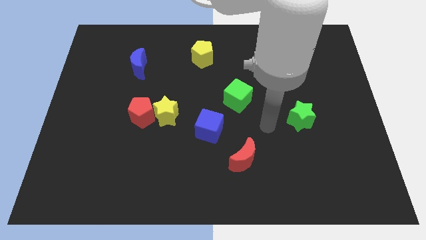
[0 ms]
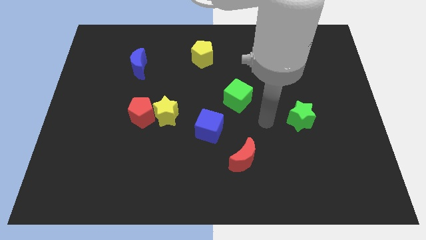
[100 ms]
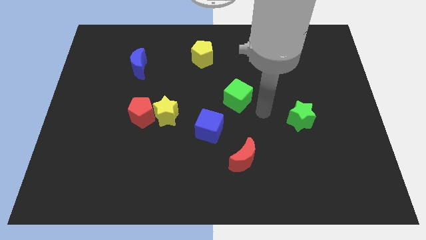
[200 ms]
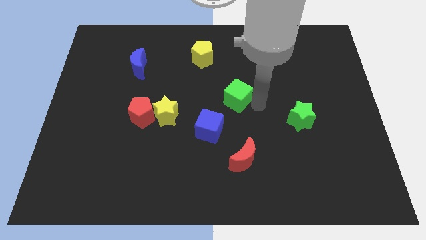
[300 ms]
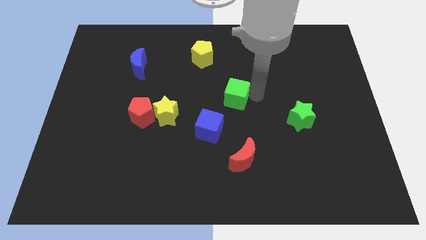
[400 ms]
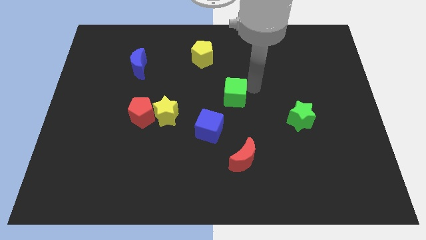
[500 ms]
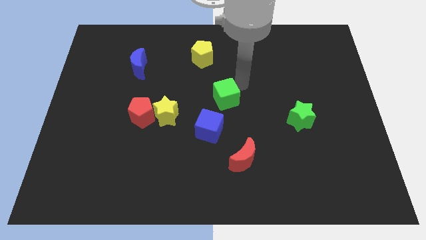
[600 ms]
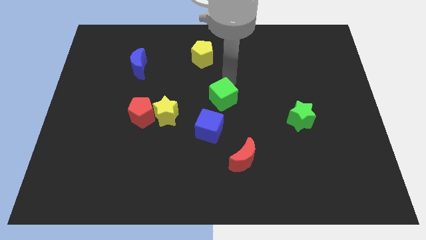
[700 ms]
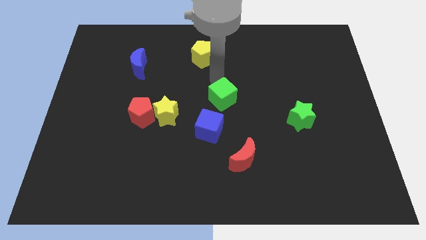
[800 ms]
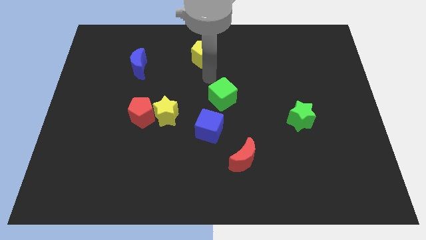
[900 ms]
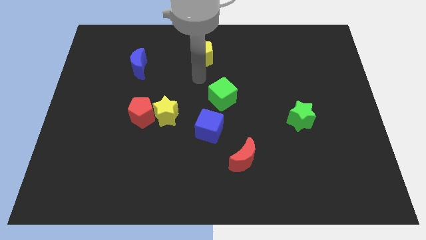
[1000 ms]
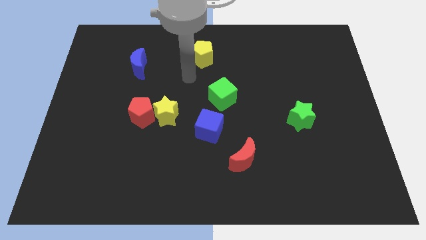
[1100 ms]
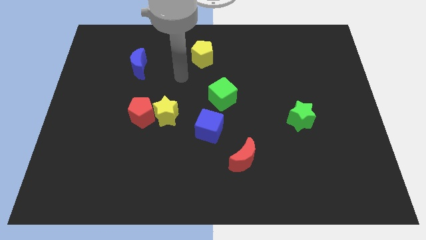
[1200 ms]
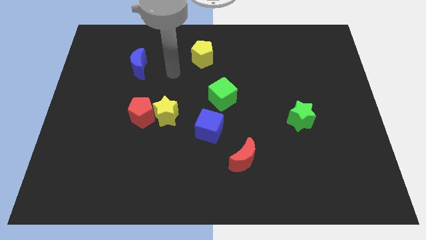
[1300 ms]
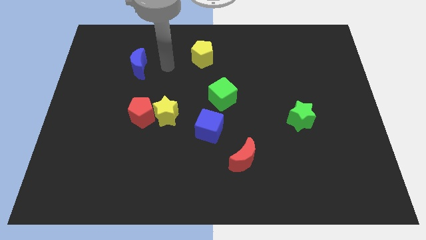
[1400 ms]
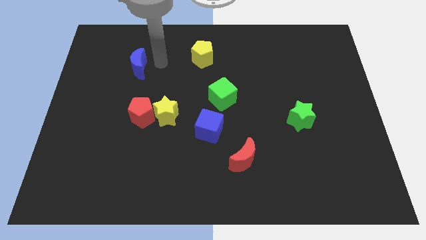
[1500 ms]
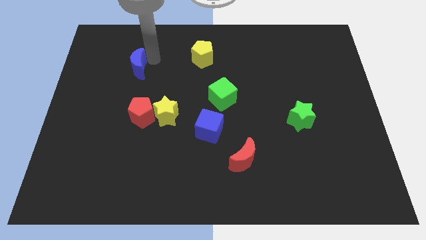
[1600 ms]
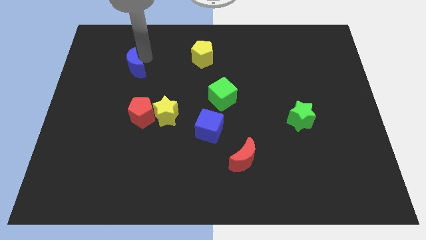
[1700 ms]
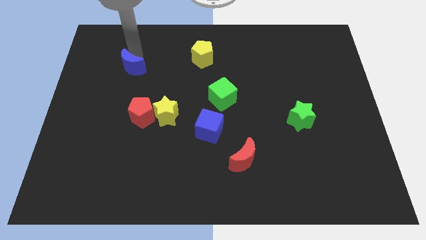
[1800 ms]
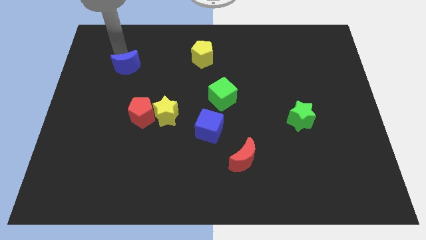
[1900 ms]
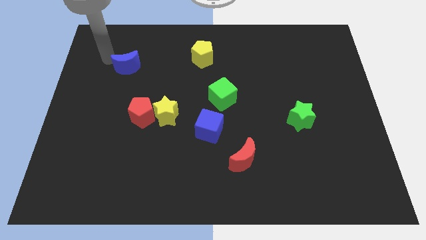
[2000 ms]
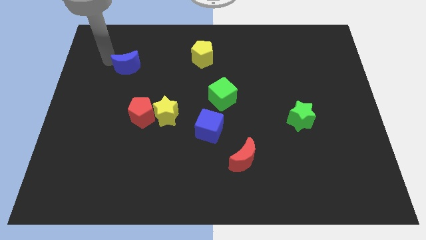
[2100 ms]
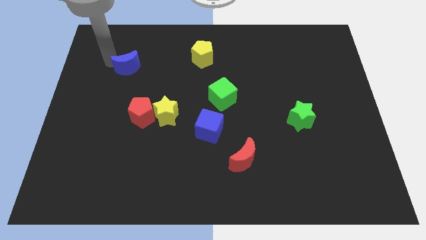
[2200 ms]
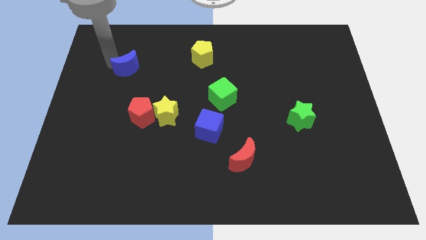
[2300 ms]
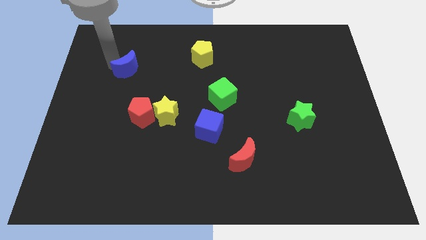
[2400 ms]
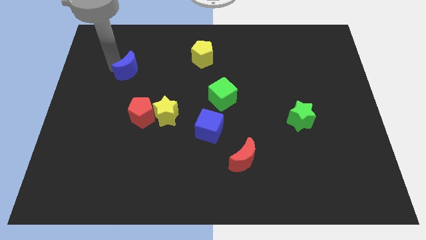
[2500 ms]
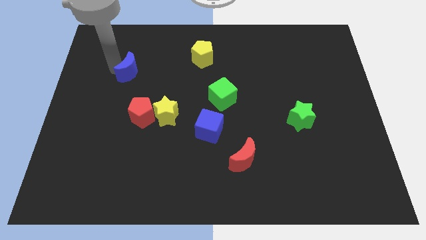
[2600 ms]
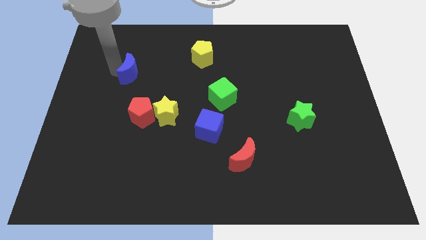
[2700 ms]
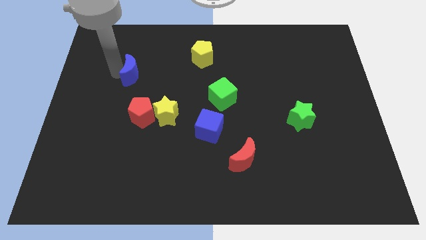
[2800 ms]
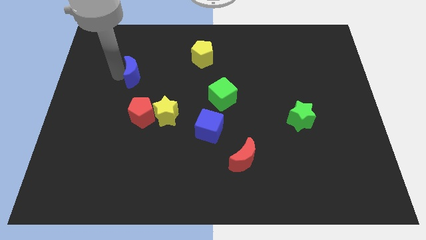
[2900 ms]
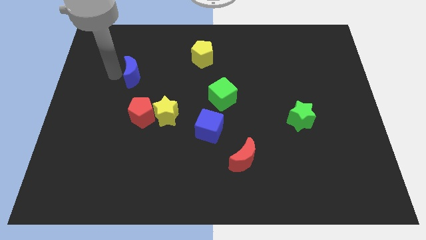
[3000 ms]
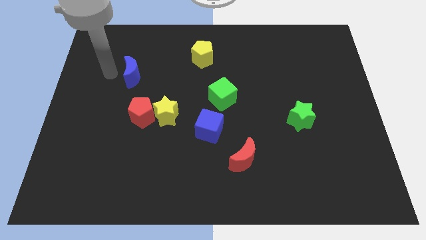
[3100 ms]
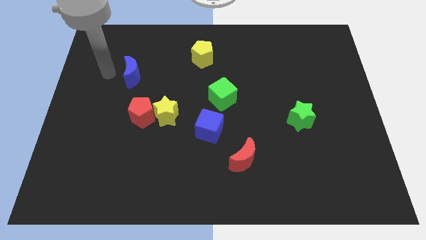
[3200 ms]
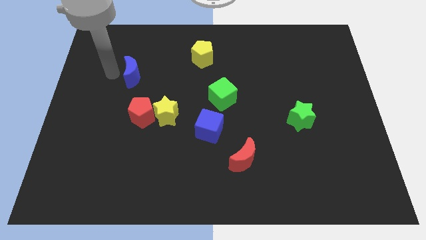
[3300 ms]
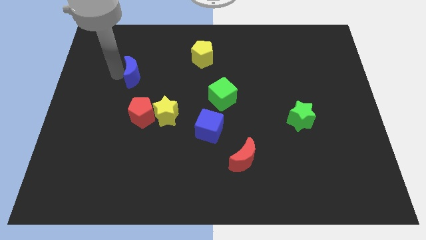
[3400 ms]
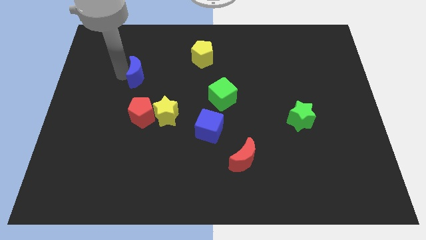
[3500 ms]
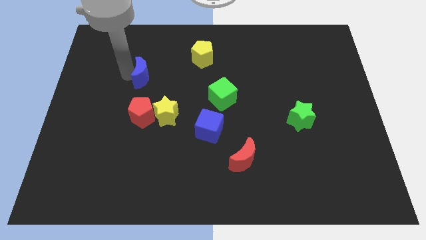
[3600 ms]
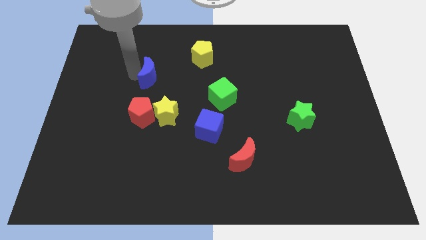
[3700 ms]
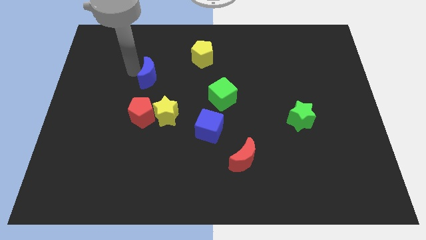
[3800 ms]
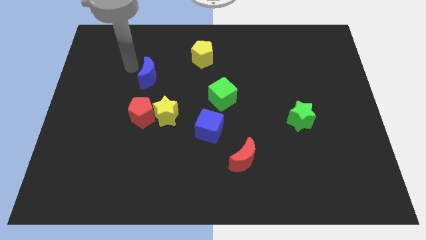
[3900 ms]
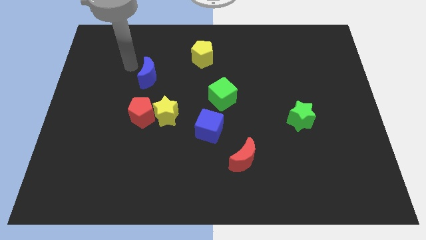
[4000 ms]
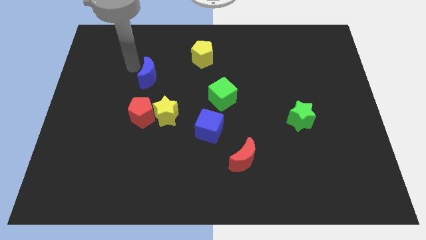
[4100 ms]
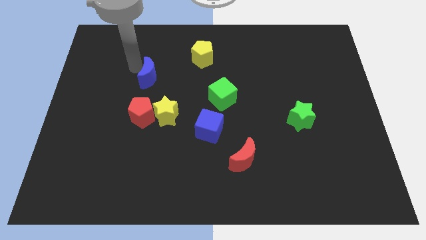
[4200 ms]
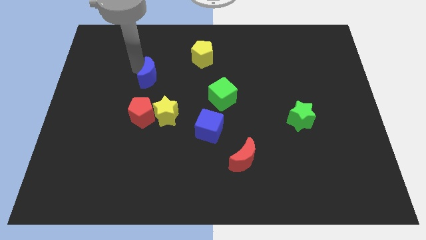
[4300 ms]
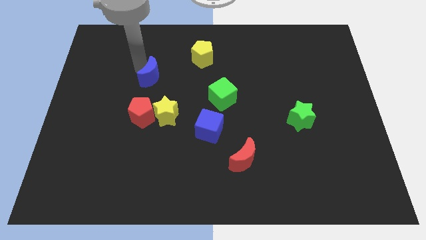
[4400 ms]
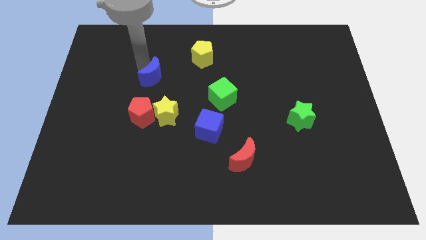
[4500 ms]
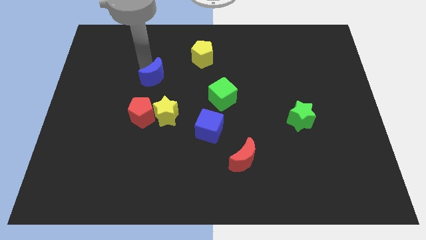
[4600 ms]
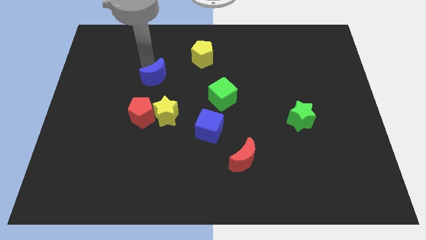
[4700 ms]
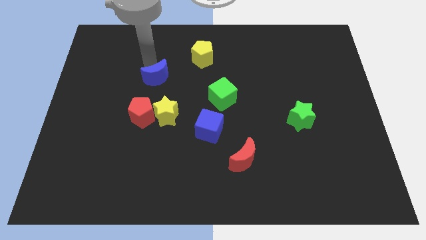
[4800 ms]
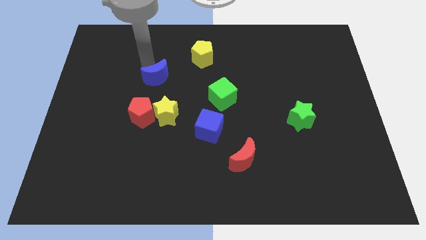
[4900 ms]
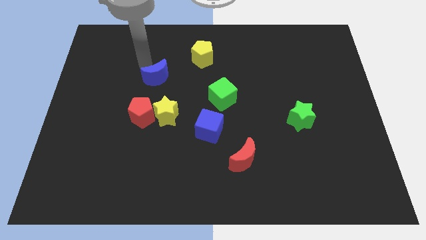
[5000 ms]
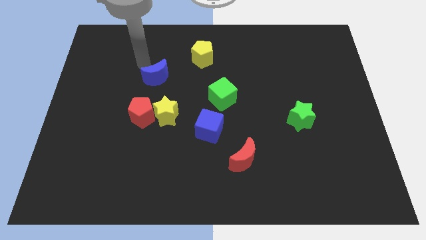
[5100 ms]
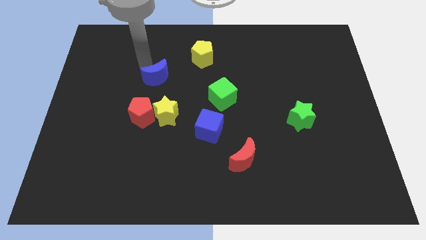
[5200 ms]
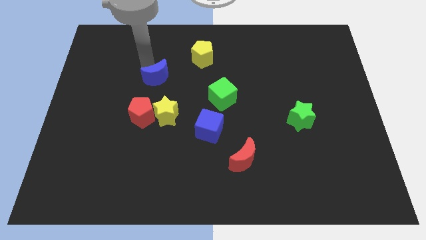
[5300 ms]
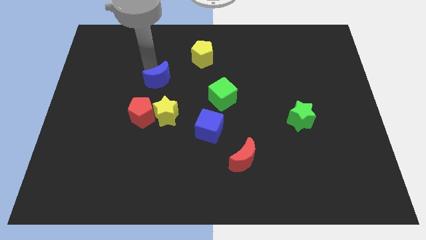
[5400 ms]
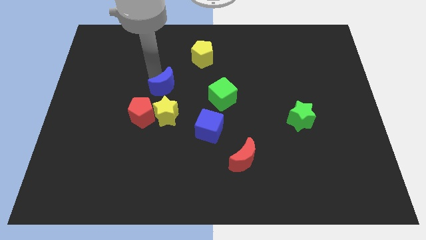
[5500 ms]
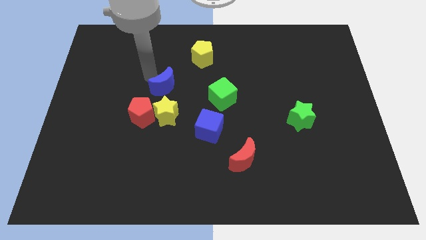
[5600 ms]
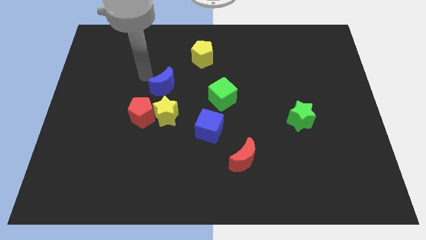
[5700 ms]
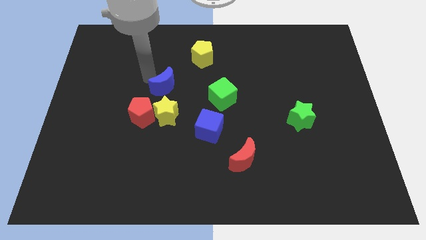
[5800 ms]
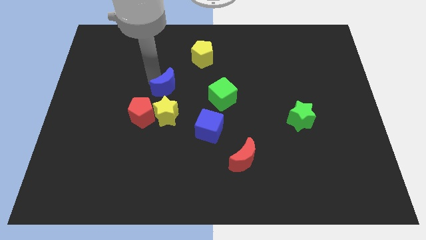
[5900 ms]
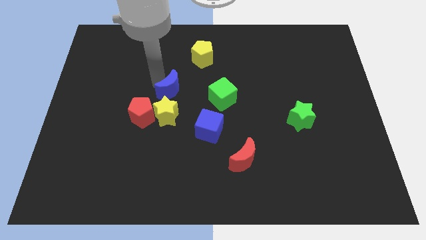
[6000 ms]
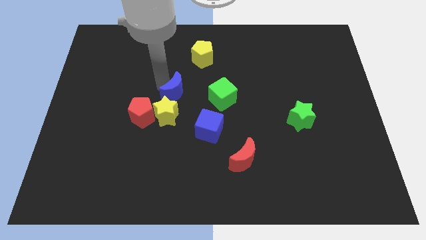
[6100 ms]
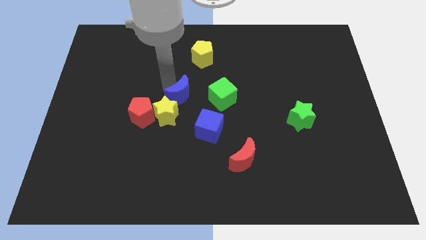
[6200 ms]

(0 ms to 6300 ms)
move the blue moon diagonally up and to the left of the blue cube

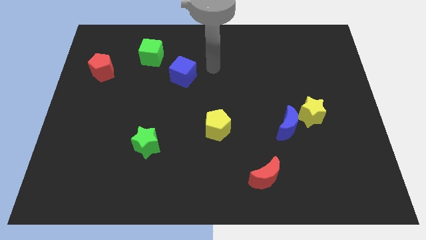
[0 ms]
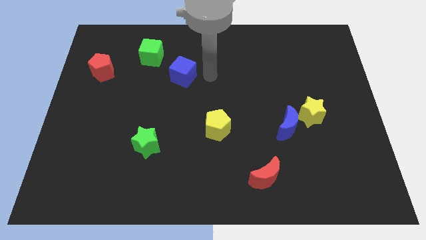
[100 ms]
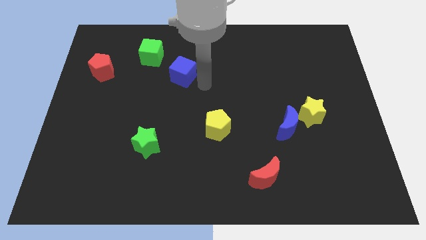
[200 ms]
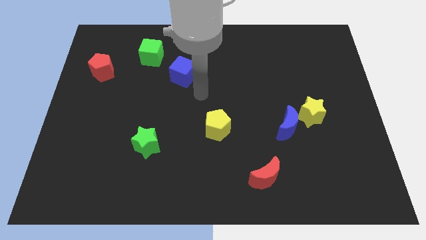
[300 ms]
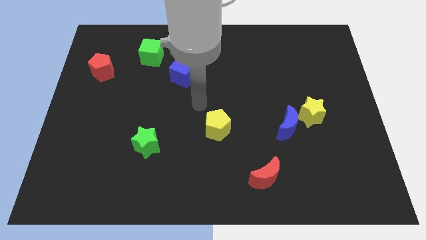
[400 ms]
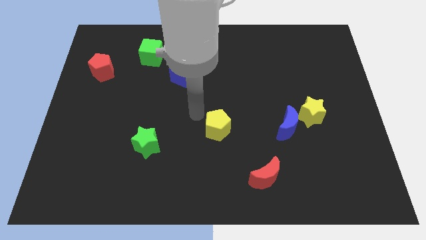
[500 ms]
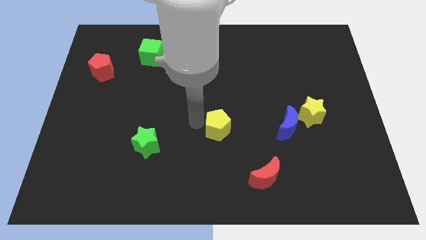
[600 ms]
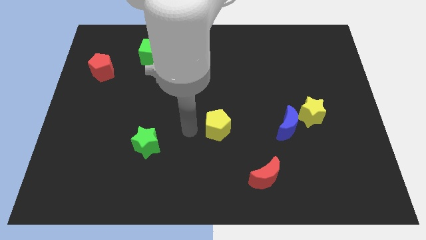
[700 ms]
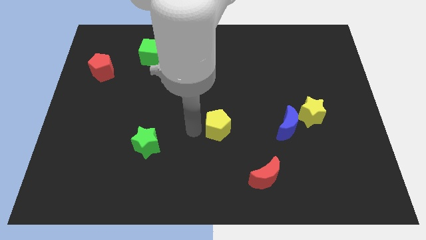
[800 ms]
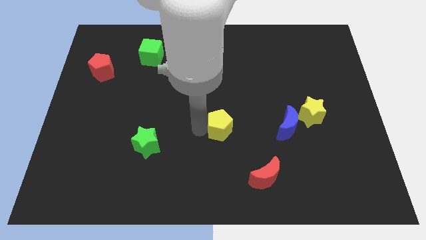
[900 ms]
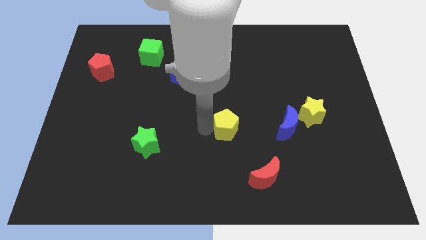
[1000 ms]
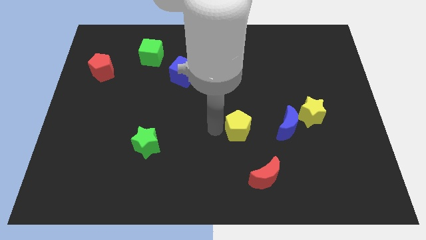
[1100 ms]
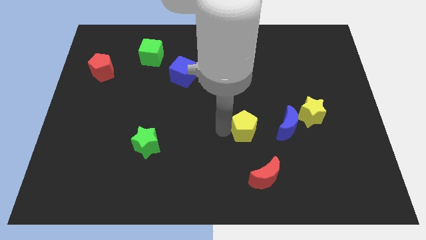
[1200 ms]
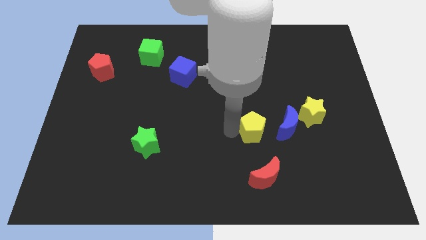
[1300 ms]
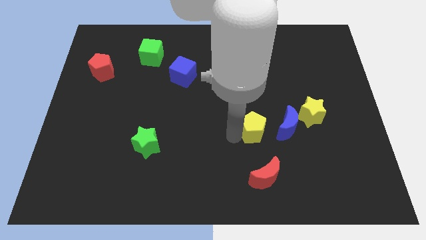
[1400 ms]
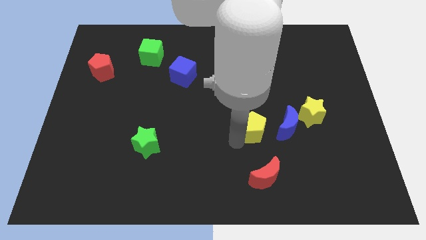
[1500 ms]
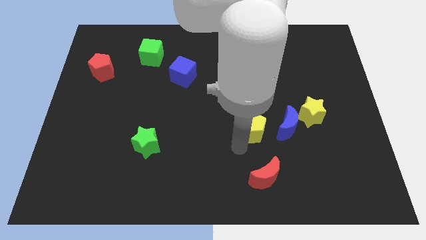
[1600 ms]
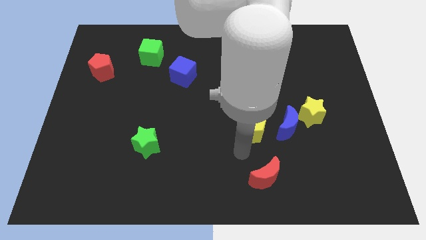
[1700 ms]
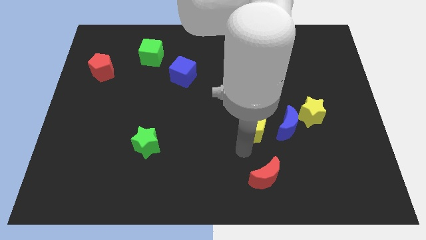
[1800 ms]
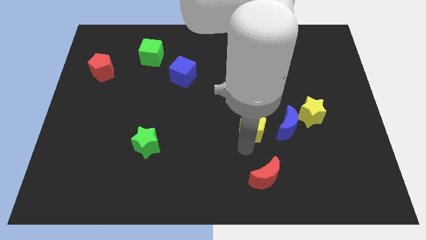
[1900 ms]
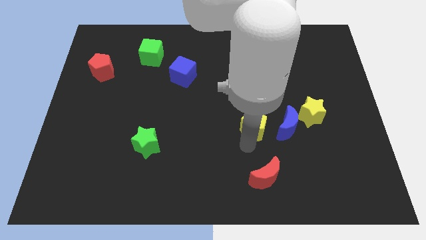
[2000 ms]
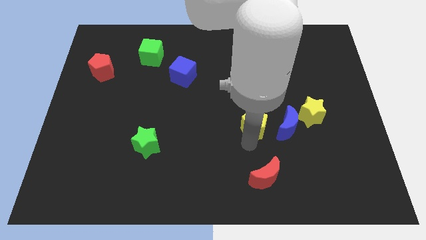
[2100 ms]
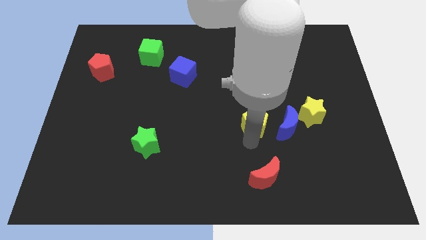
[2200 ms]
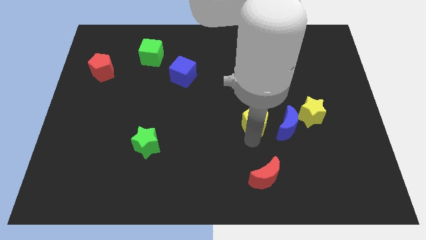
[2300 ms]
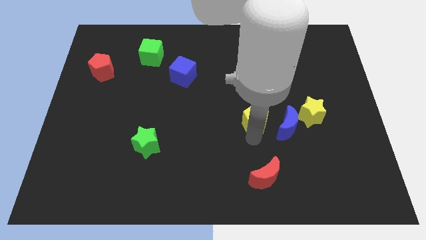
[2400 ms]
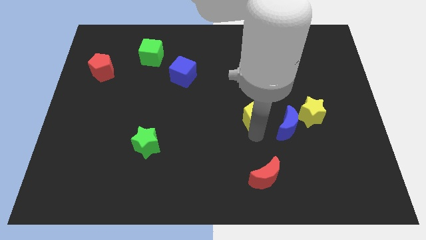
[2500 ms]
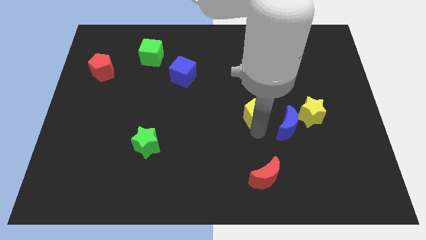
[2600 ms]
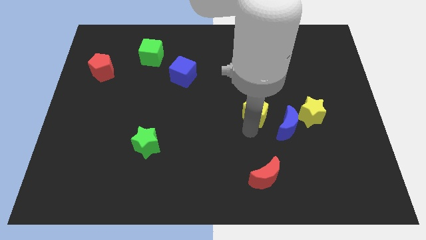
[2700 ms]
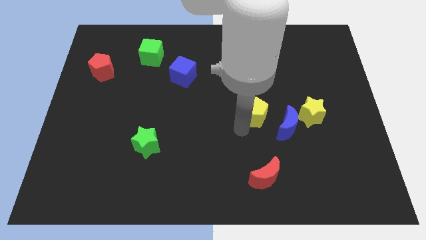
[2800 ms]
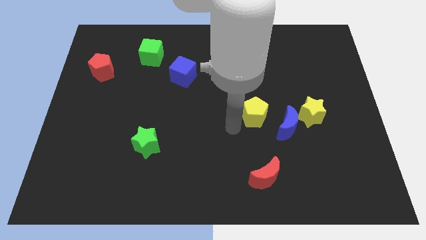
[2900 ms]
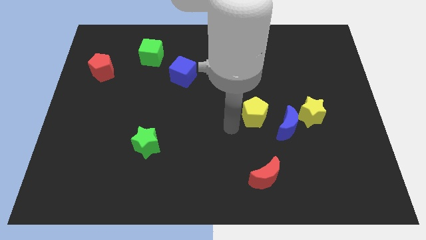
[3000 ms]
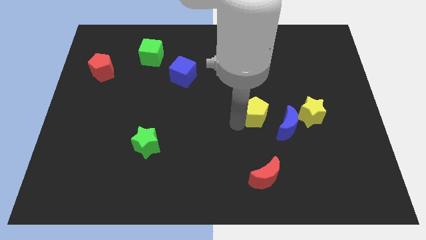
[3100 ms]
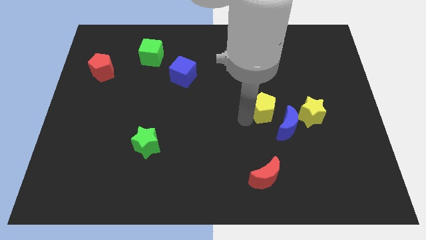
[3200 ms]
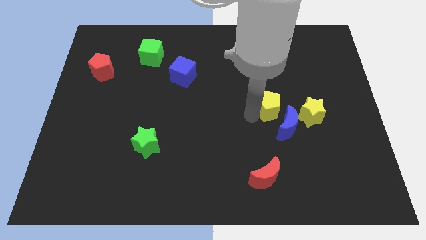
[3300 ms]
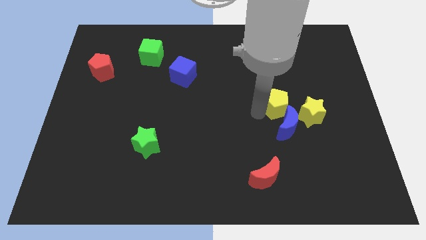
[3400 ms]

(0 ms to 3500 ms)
slide the yellow pentagon diagonally up and to the left of the yellow star
